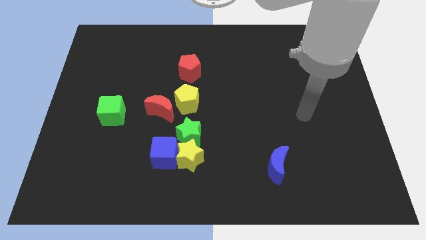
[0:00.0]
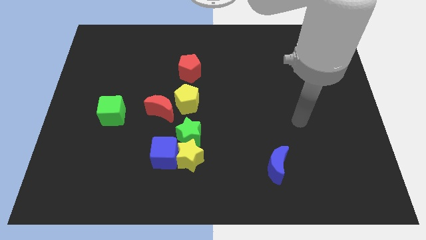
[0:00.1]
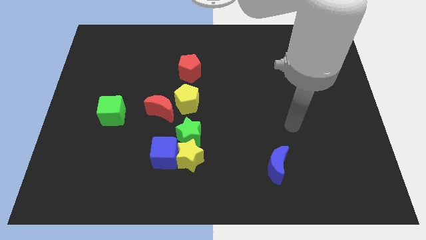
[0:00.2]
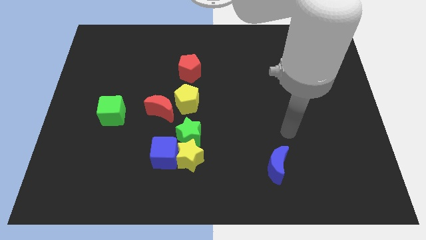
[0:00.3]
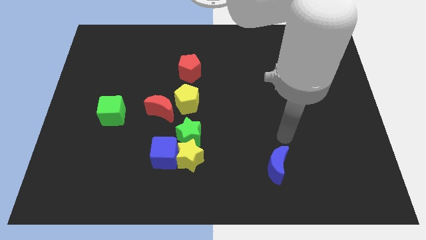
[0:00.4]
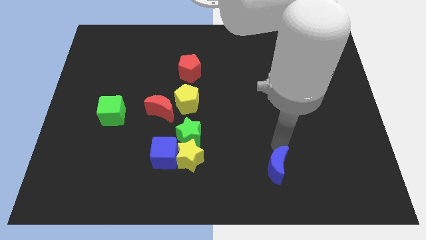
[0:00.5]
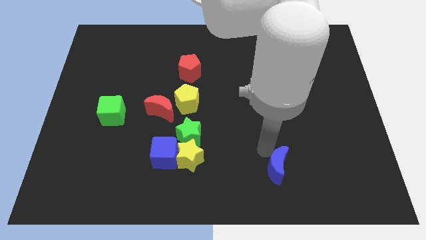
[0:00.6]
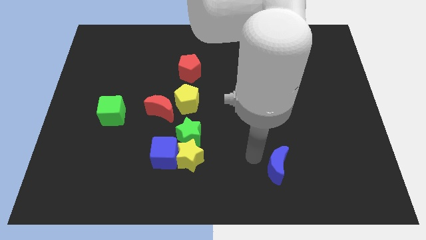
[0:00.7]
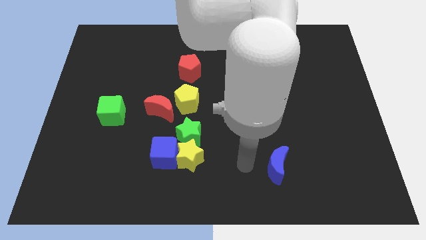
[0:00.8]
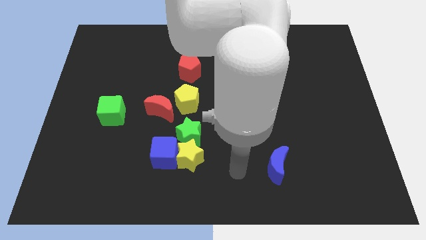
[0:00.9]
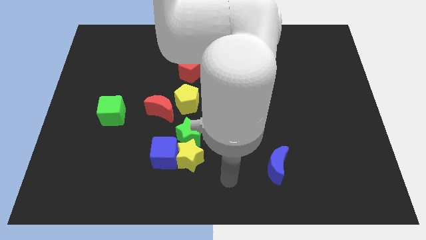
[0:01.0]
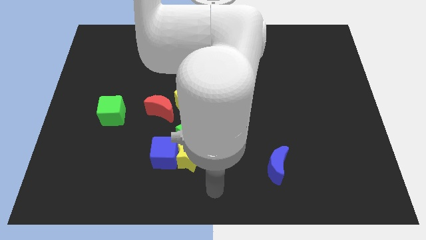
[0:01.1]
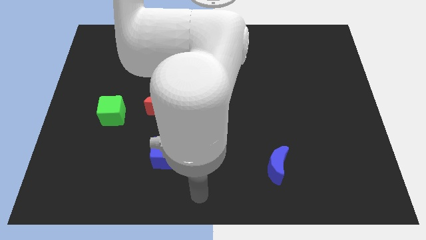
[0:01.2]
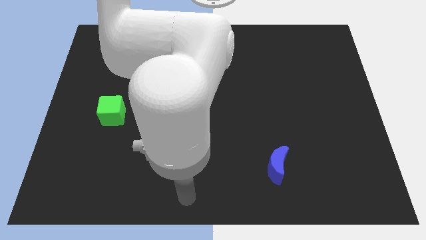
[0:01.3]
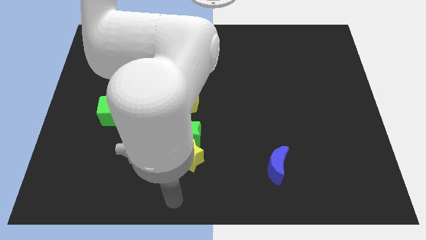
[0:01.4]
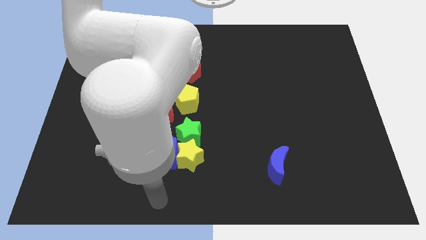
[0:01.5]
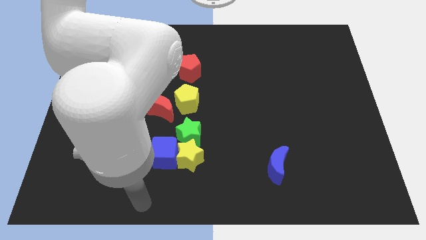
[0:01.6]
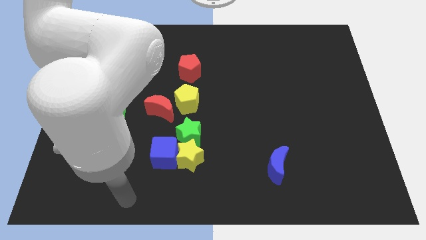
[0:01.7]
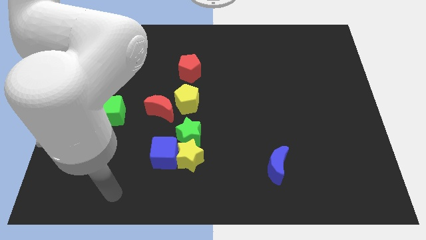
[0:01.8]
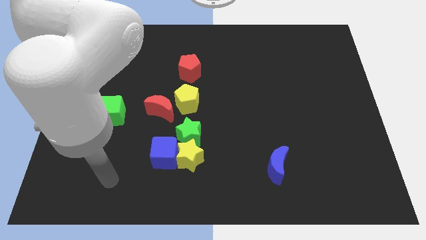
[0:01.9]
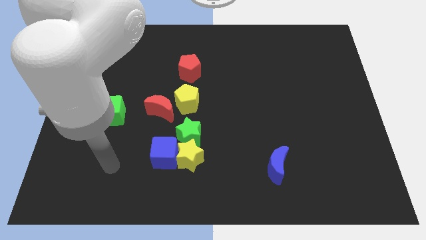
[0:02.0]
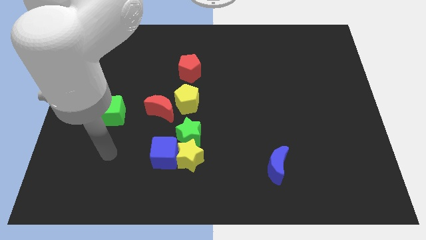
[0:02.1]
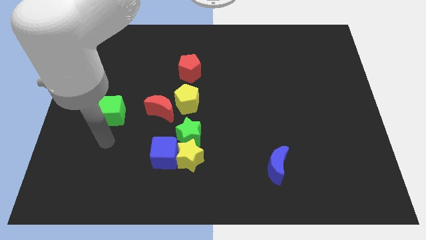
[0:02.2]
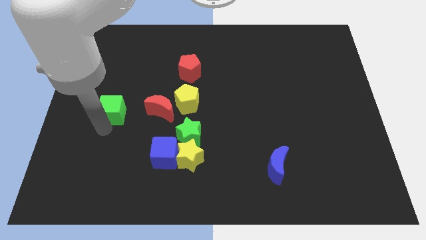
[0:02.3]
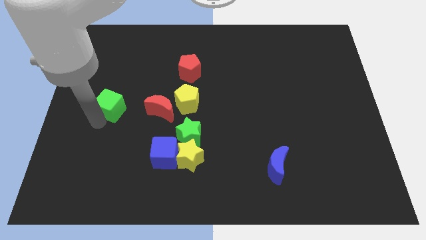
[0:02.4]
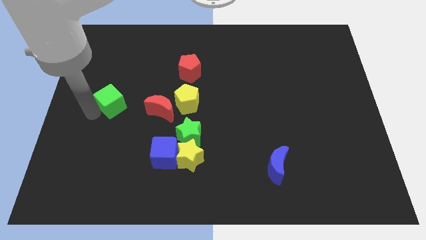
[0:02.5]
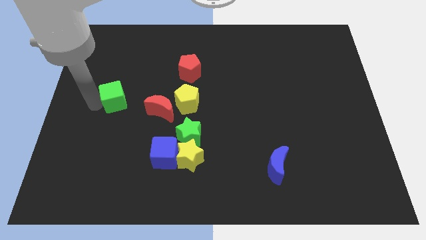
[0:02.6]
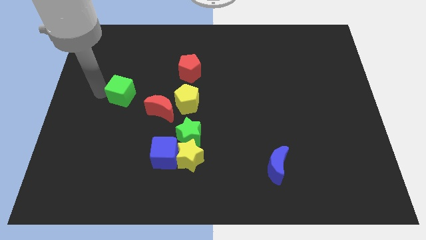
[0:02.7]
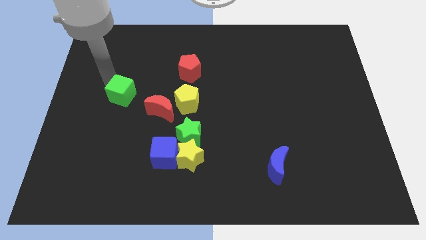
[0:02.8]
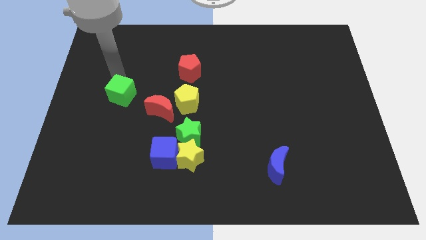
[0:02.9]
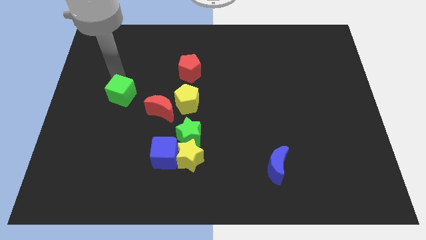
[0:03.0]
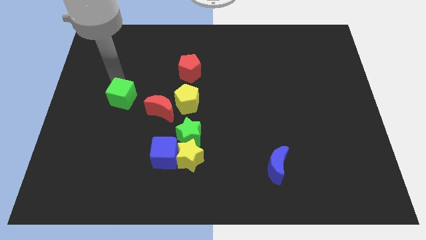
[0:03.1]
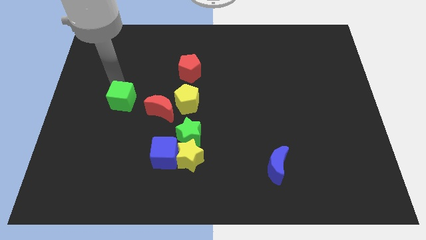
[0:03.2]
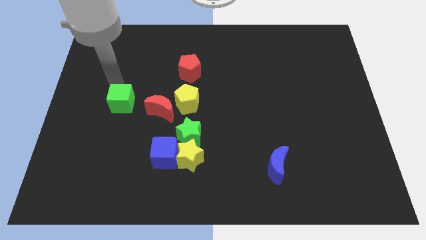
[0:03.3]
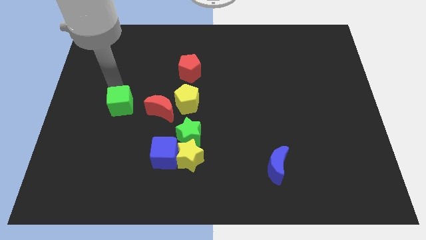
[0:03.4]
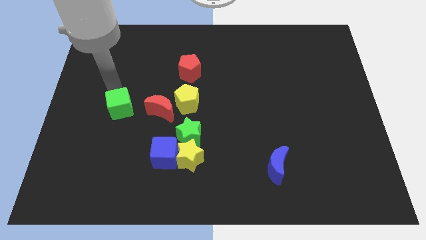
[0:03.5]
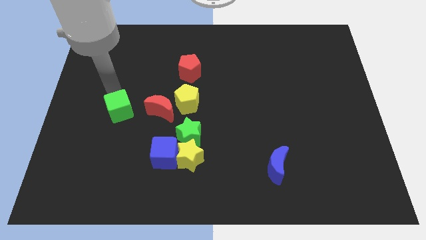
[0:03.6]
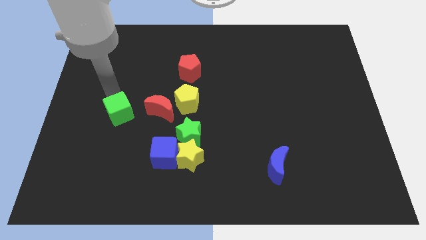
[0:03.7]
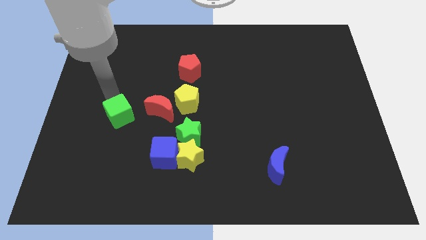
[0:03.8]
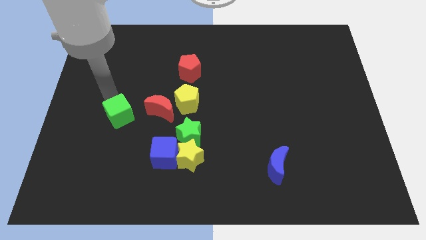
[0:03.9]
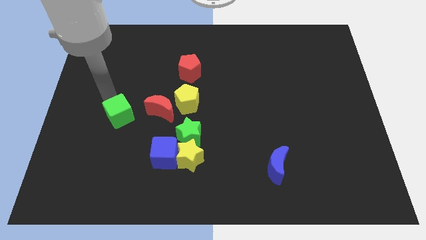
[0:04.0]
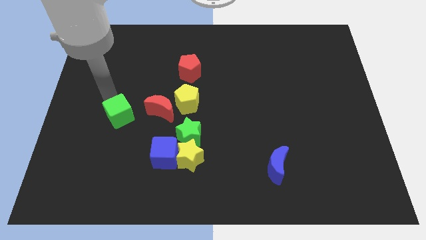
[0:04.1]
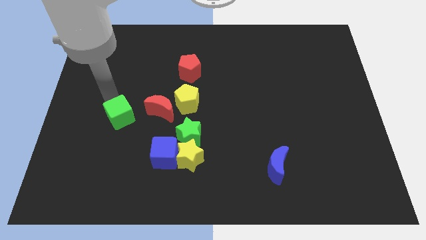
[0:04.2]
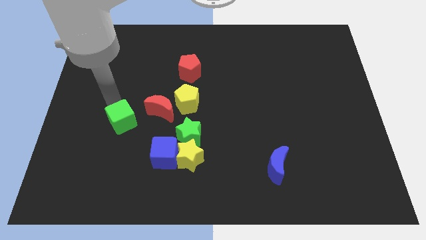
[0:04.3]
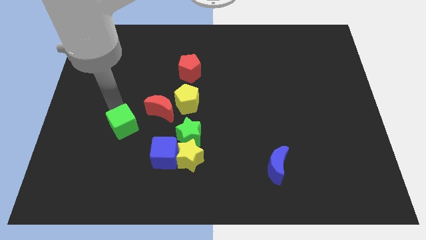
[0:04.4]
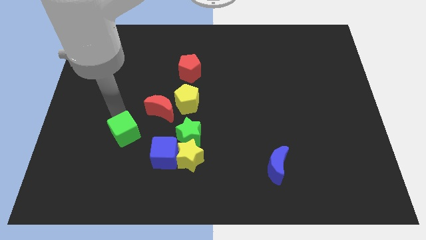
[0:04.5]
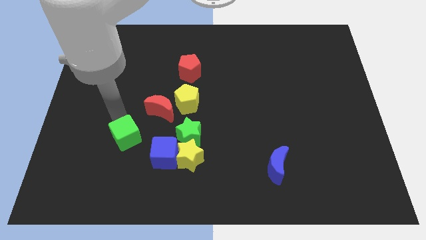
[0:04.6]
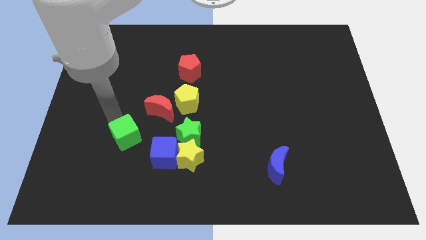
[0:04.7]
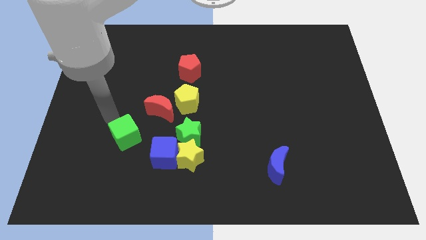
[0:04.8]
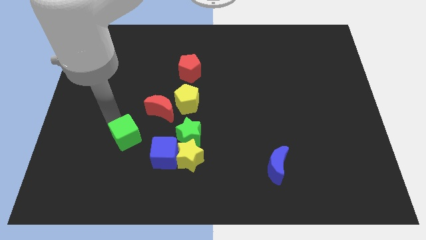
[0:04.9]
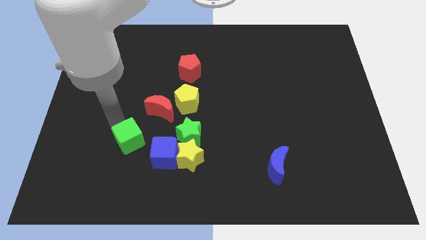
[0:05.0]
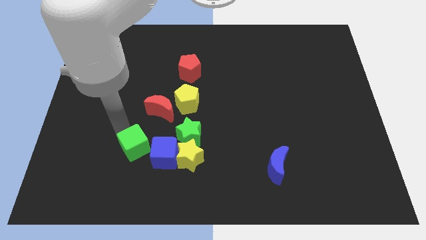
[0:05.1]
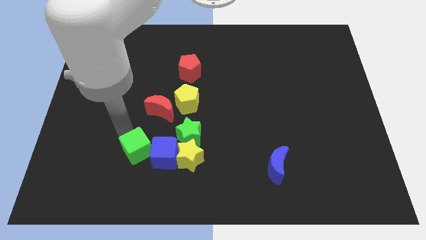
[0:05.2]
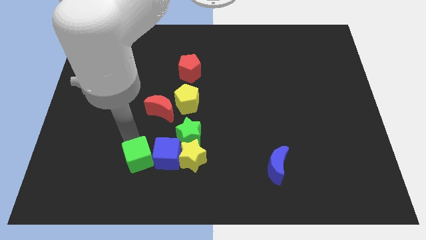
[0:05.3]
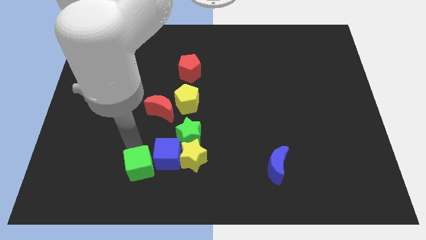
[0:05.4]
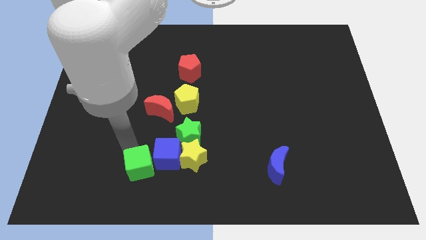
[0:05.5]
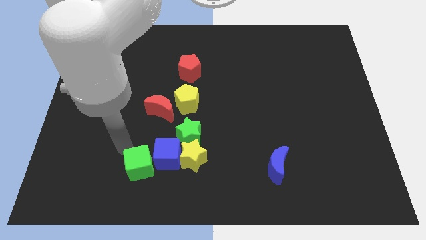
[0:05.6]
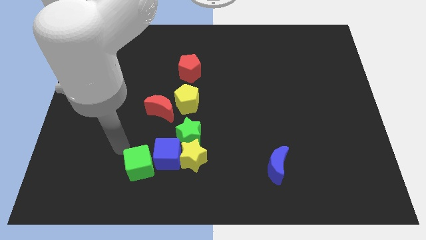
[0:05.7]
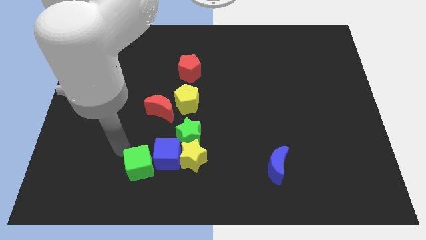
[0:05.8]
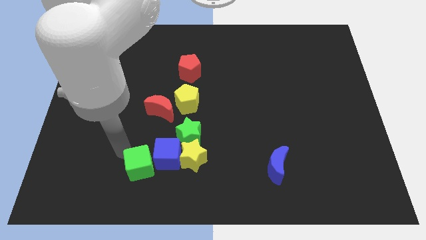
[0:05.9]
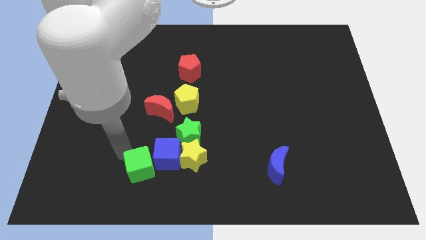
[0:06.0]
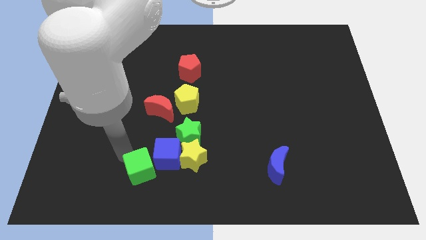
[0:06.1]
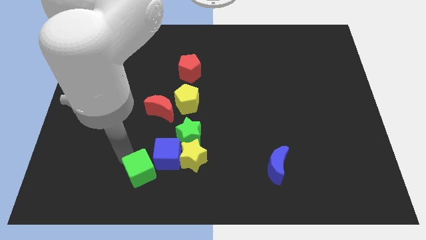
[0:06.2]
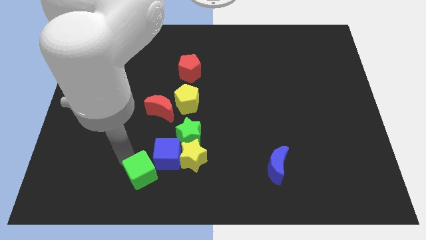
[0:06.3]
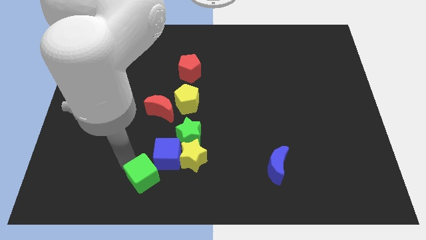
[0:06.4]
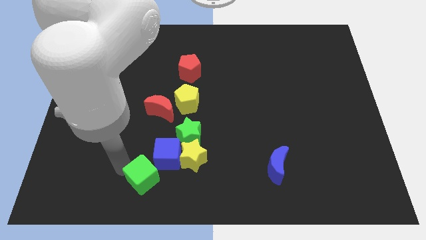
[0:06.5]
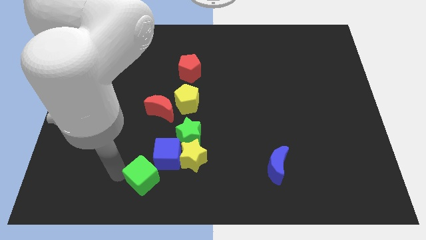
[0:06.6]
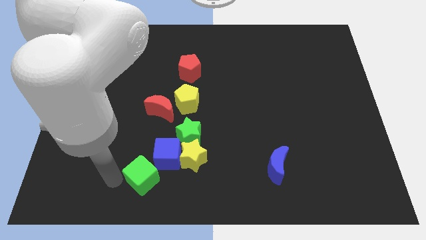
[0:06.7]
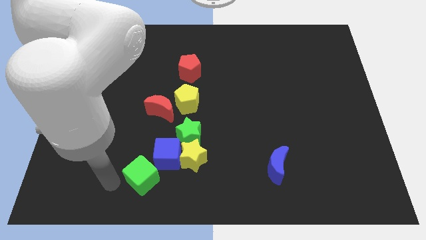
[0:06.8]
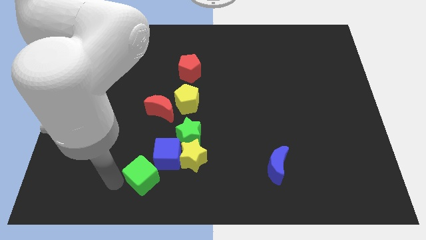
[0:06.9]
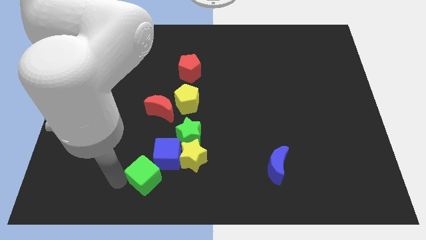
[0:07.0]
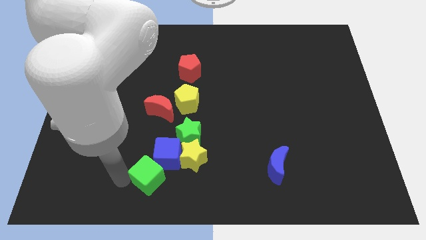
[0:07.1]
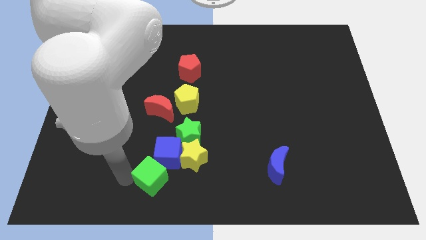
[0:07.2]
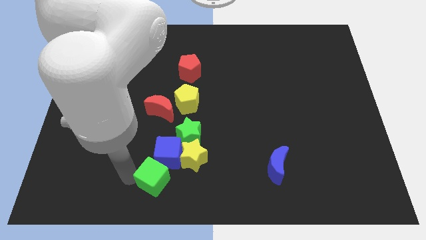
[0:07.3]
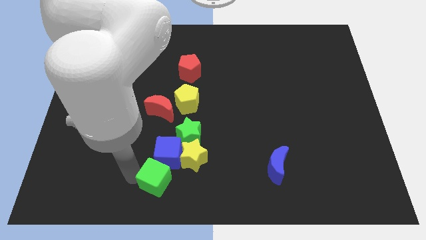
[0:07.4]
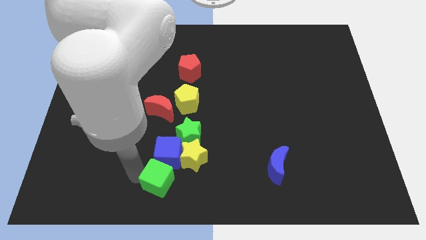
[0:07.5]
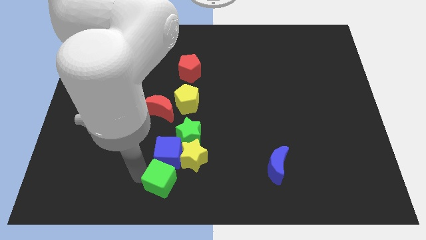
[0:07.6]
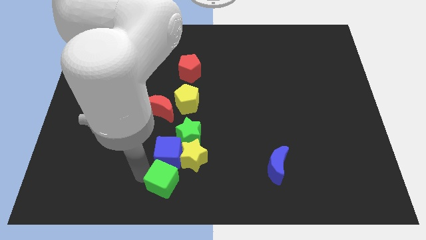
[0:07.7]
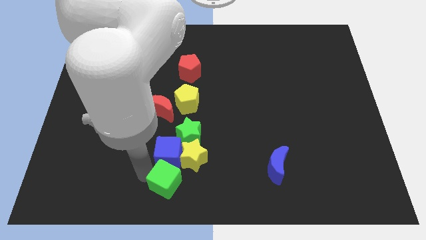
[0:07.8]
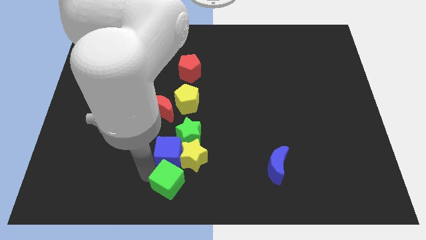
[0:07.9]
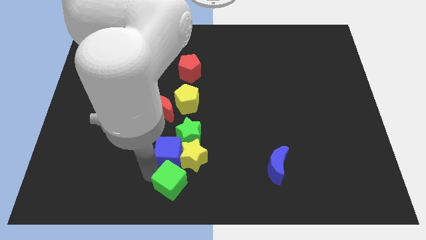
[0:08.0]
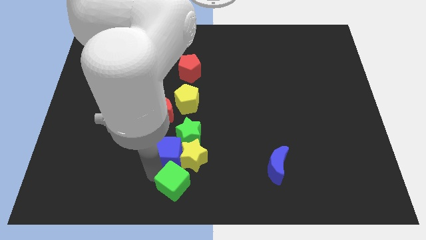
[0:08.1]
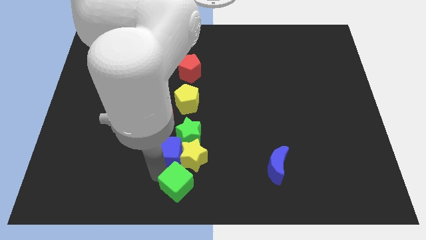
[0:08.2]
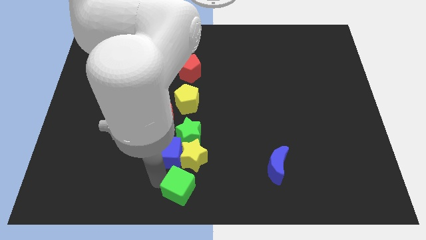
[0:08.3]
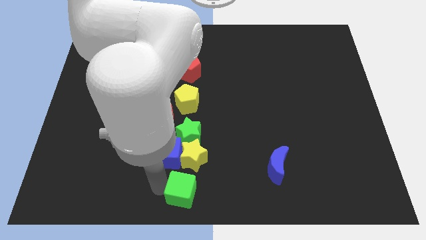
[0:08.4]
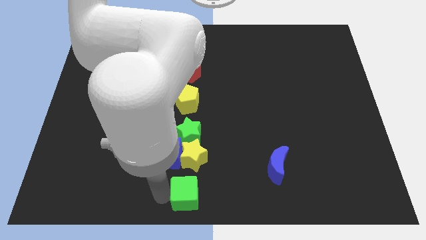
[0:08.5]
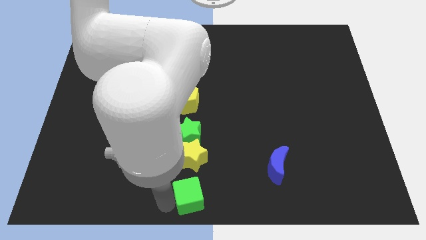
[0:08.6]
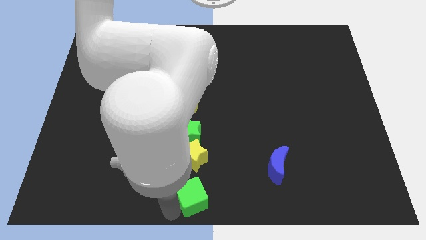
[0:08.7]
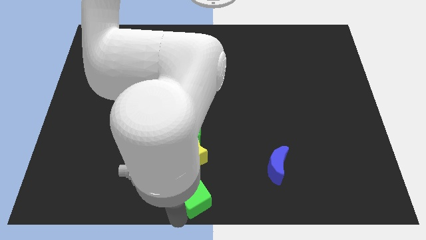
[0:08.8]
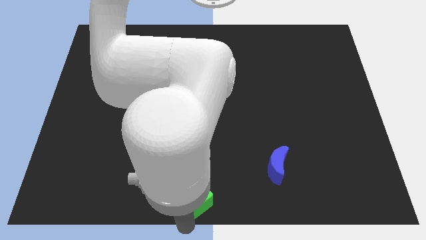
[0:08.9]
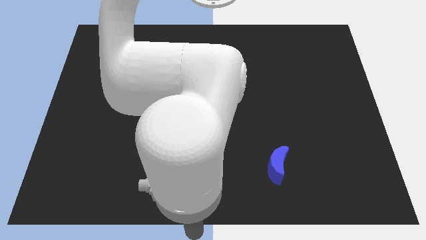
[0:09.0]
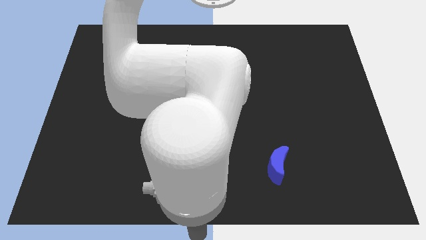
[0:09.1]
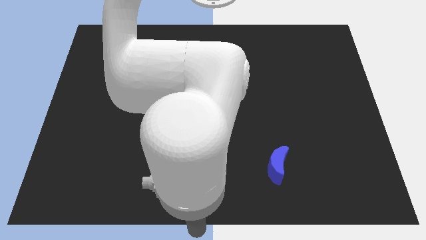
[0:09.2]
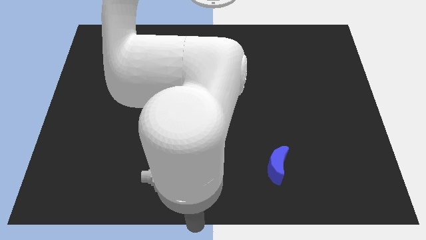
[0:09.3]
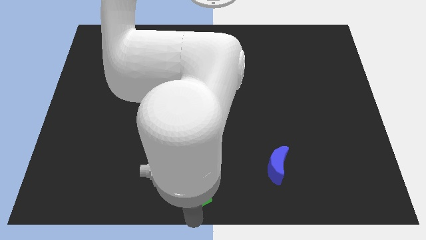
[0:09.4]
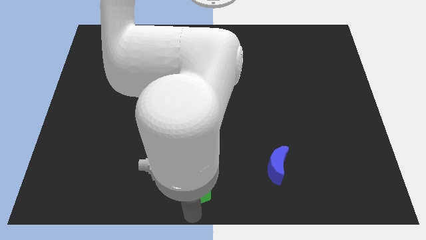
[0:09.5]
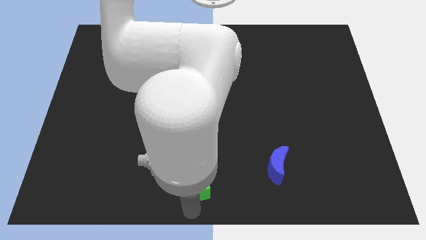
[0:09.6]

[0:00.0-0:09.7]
put the green cube close to the yellow star
